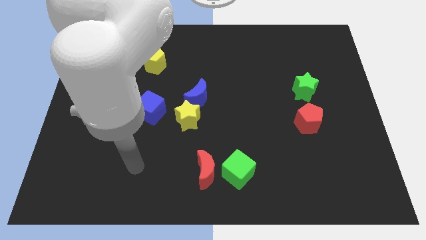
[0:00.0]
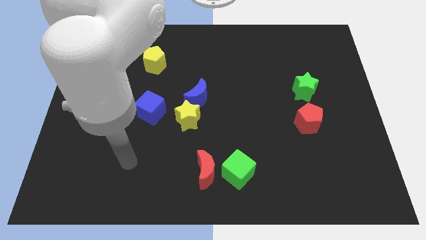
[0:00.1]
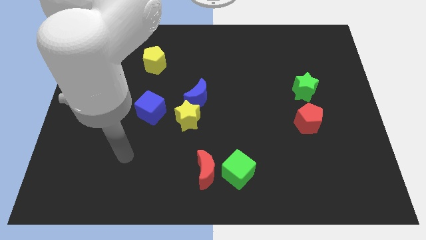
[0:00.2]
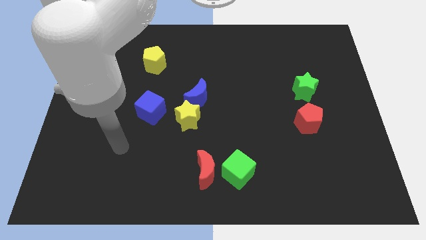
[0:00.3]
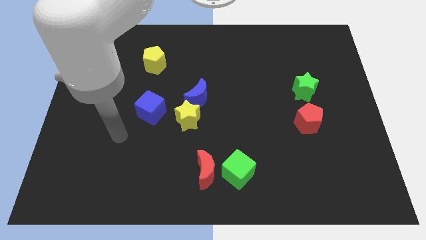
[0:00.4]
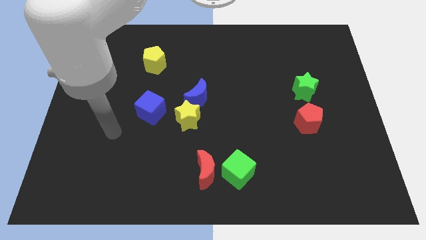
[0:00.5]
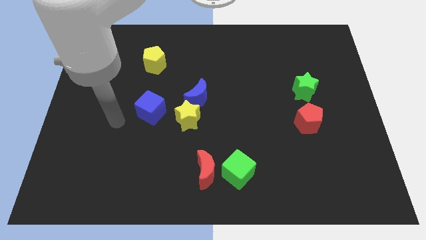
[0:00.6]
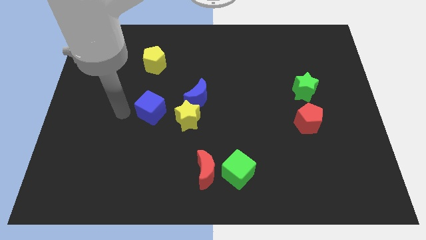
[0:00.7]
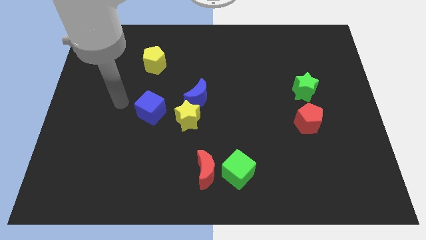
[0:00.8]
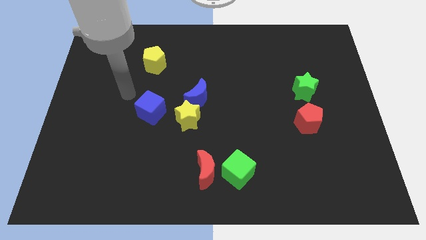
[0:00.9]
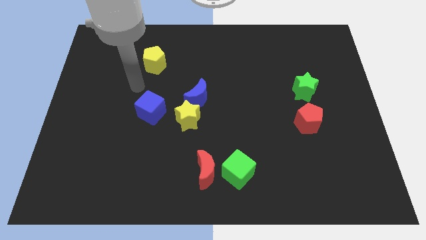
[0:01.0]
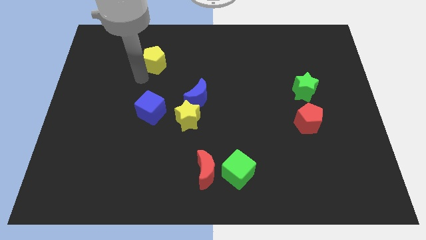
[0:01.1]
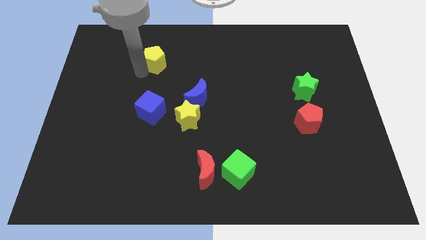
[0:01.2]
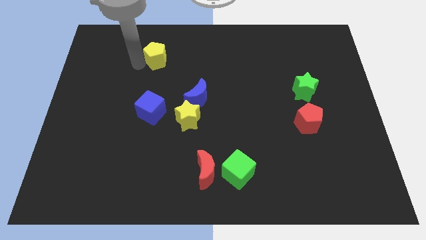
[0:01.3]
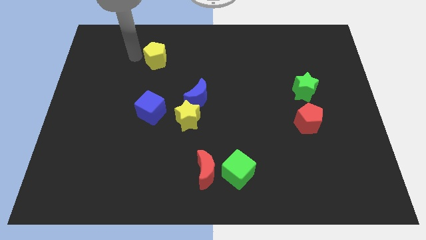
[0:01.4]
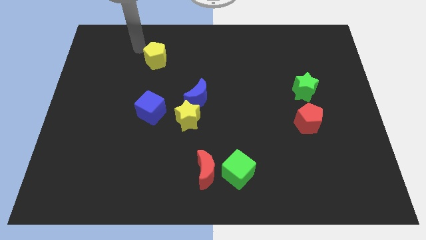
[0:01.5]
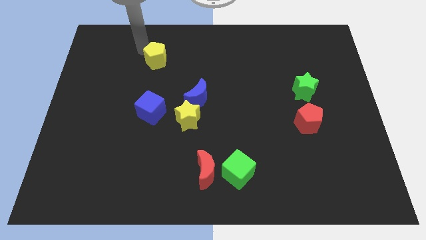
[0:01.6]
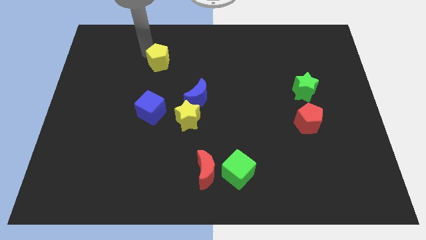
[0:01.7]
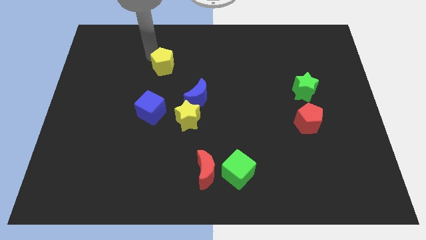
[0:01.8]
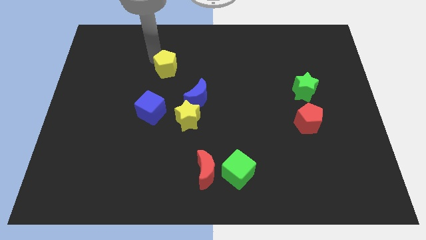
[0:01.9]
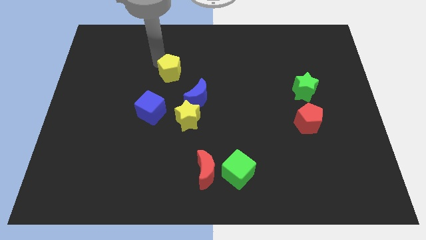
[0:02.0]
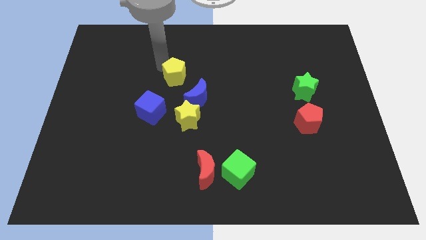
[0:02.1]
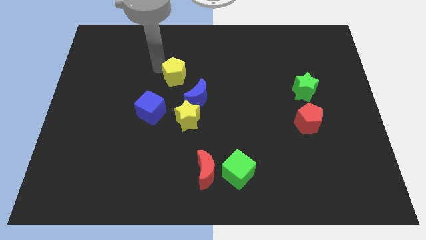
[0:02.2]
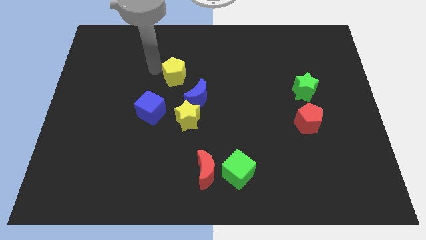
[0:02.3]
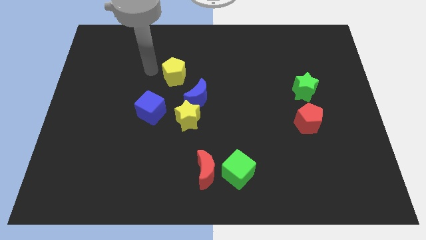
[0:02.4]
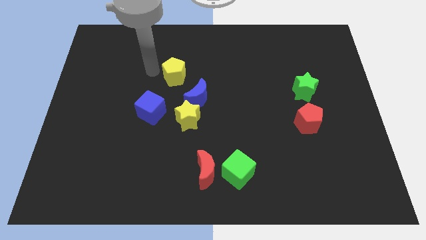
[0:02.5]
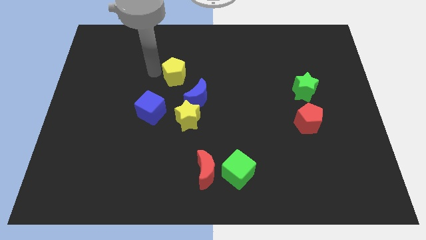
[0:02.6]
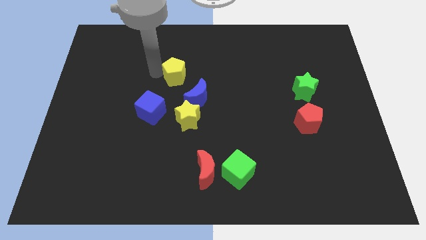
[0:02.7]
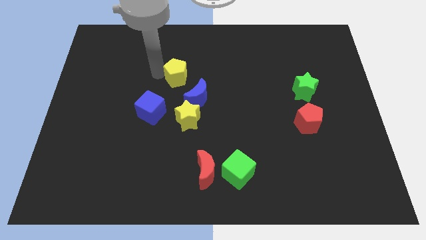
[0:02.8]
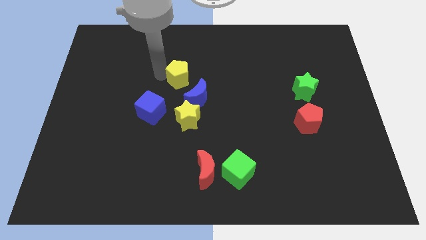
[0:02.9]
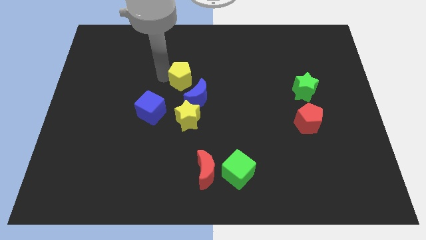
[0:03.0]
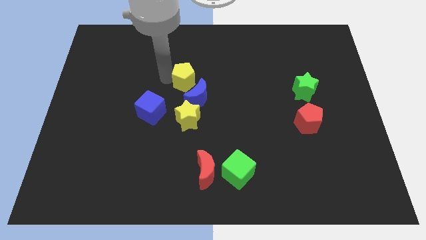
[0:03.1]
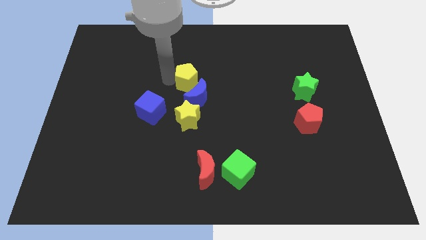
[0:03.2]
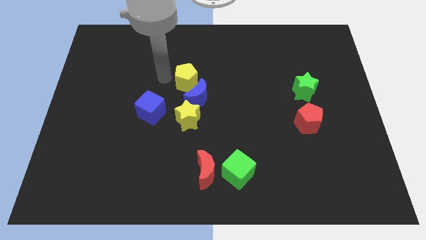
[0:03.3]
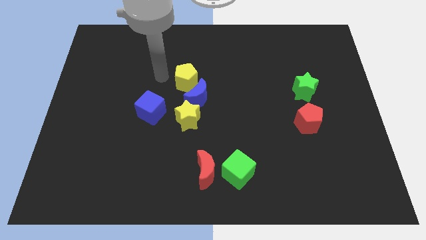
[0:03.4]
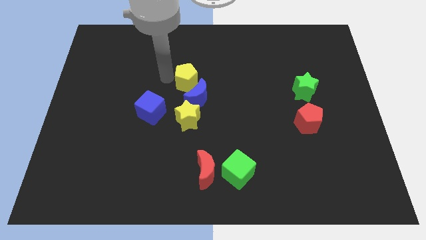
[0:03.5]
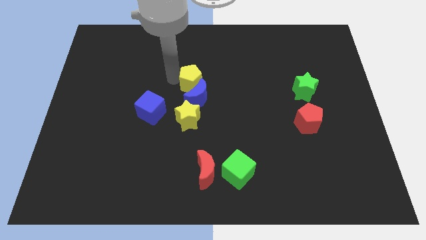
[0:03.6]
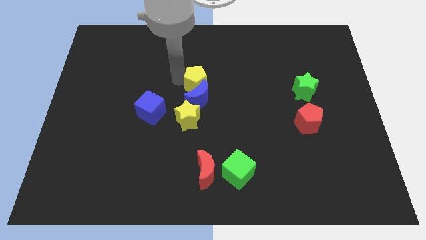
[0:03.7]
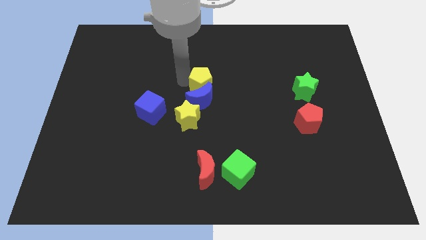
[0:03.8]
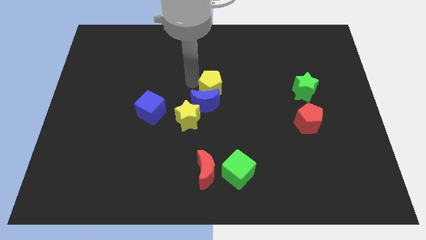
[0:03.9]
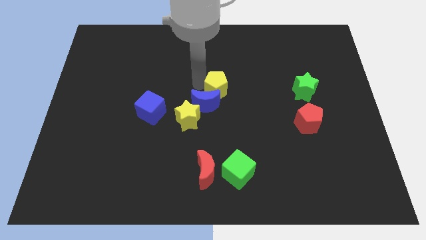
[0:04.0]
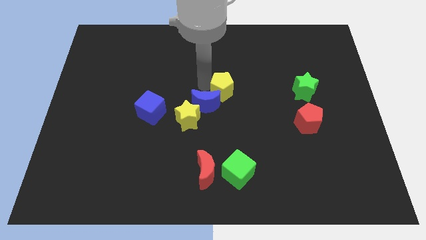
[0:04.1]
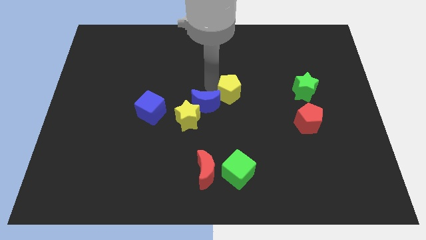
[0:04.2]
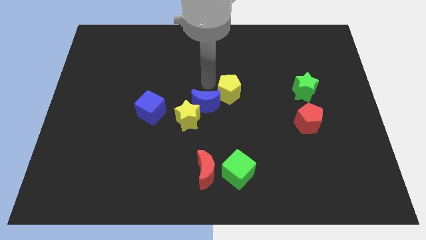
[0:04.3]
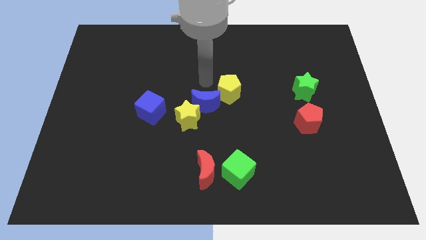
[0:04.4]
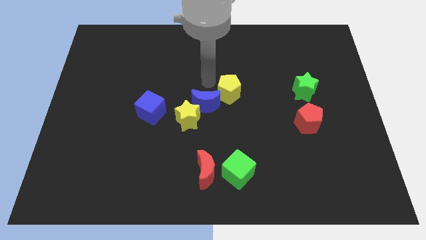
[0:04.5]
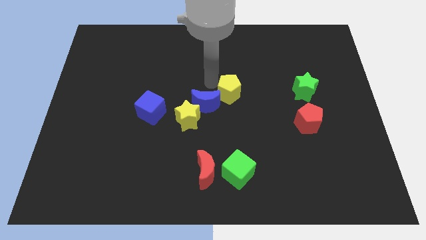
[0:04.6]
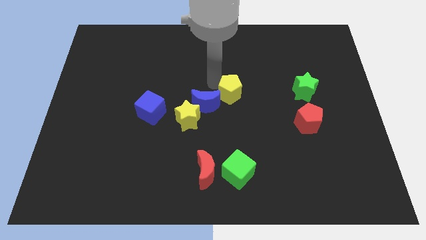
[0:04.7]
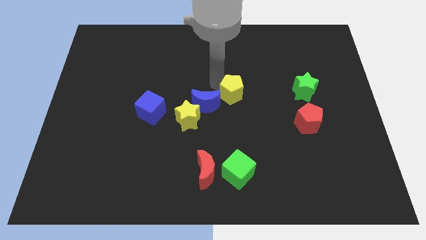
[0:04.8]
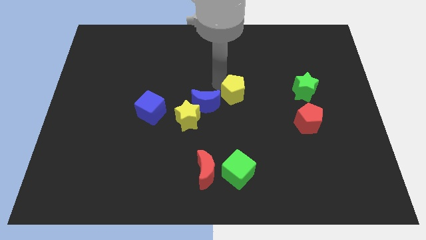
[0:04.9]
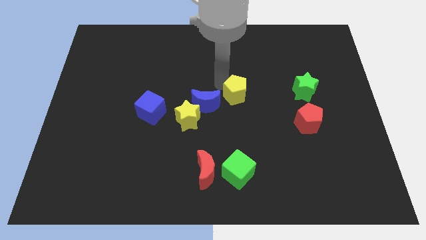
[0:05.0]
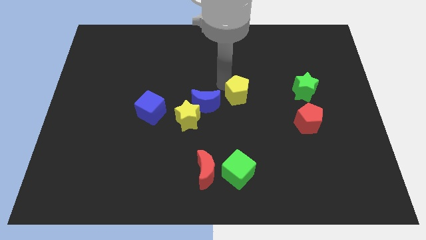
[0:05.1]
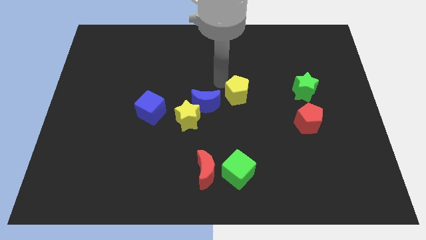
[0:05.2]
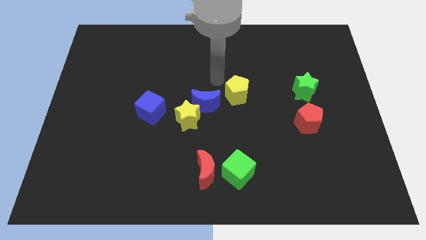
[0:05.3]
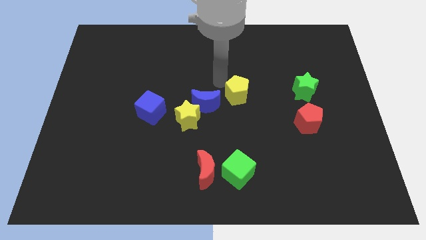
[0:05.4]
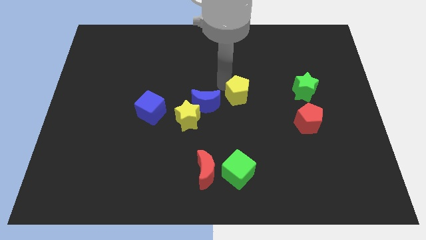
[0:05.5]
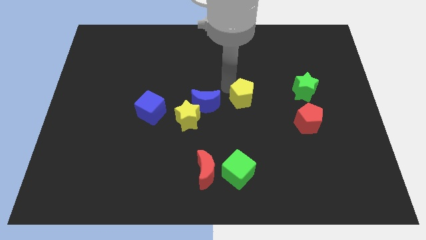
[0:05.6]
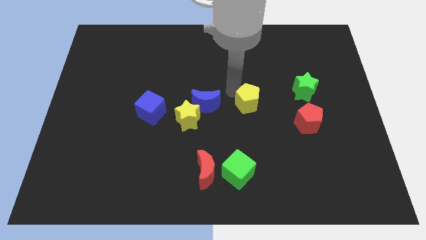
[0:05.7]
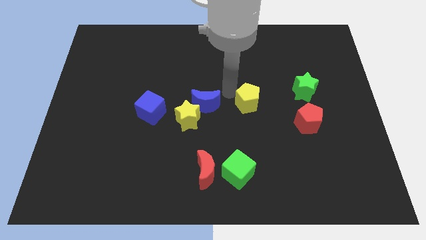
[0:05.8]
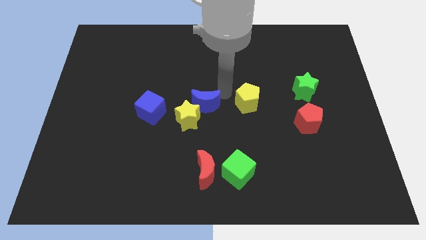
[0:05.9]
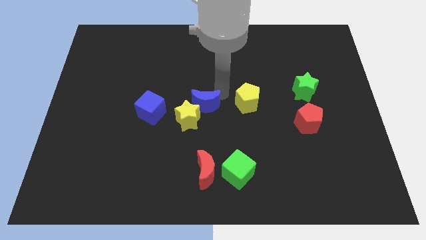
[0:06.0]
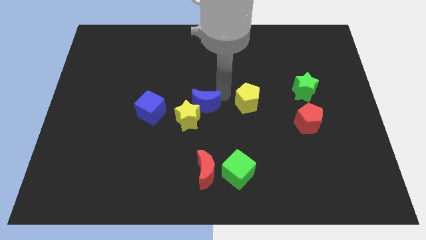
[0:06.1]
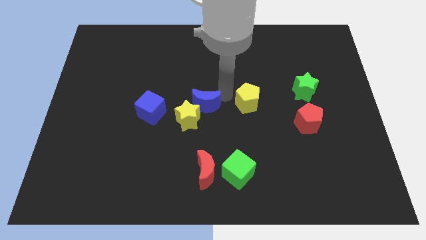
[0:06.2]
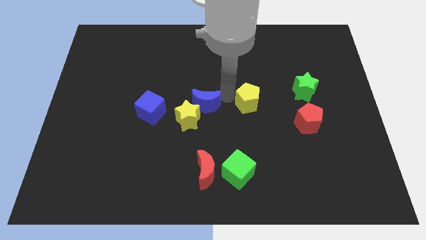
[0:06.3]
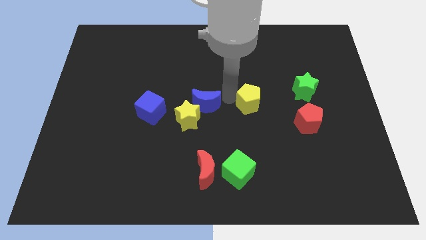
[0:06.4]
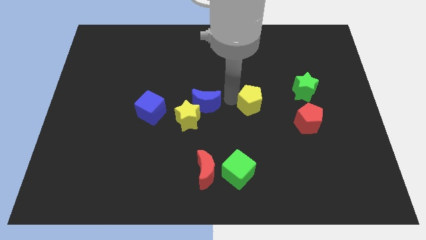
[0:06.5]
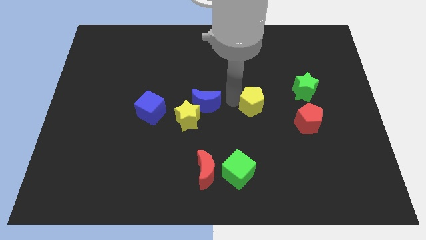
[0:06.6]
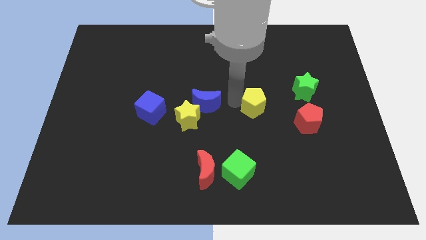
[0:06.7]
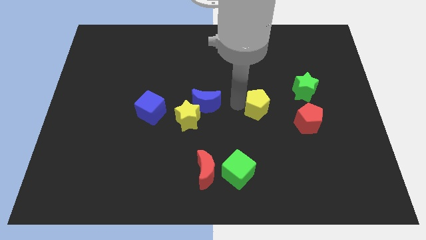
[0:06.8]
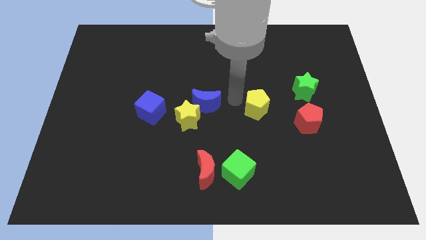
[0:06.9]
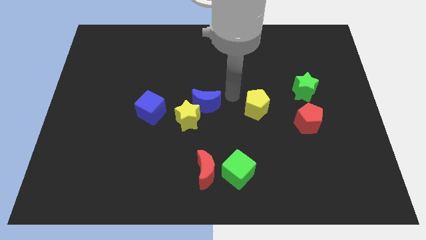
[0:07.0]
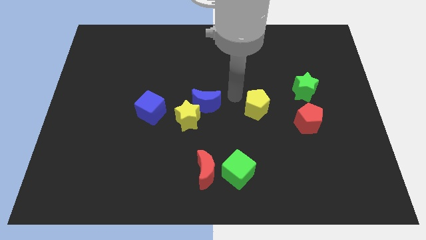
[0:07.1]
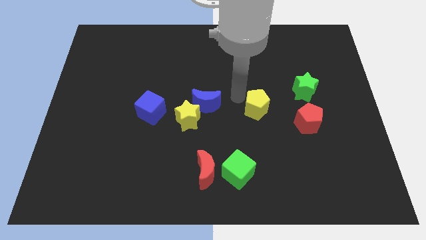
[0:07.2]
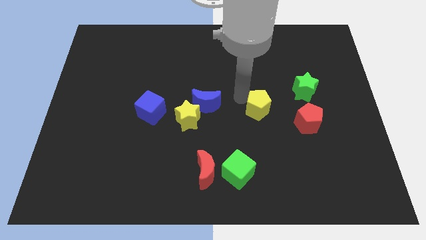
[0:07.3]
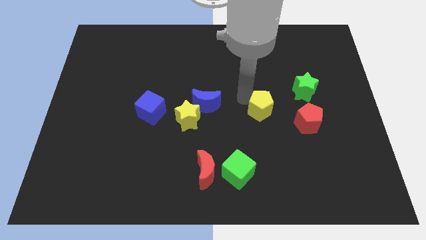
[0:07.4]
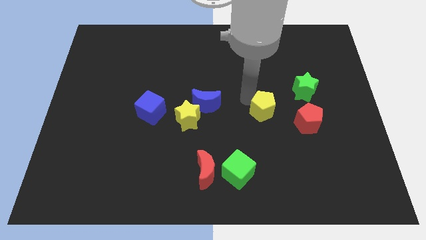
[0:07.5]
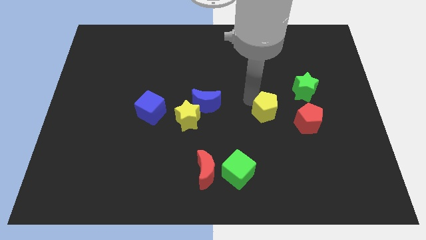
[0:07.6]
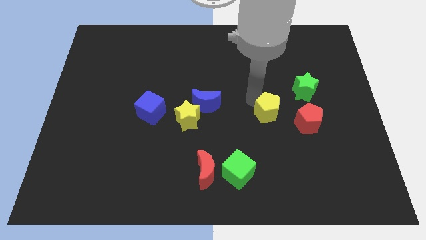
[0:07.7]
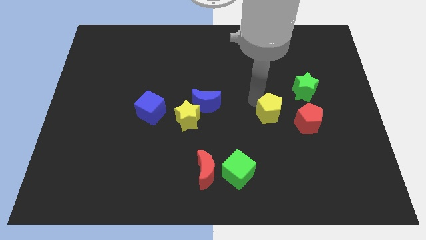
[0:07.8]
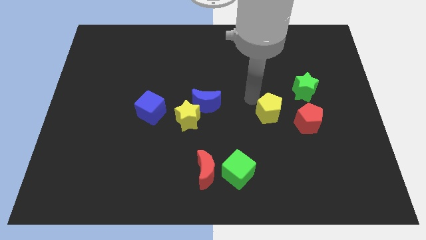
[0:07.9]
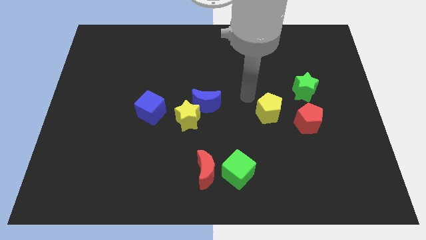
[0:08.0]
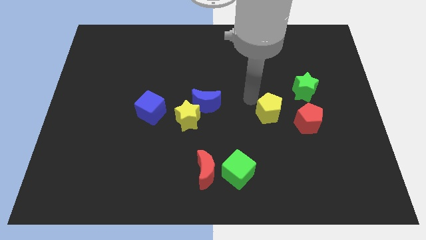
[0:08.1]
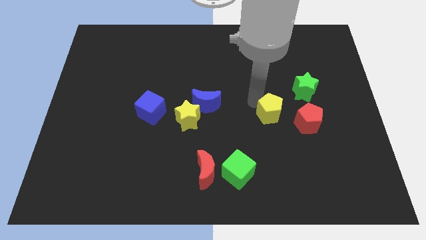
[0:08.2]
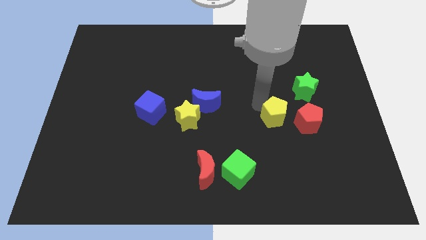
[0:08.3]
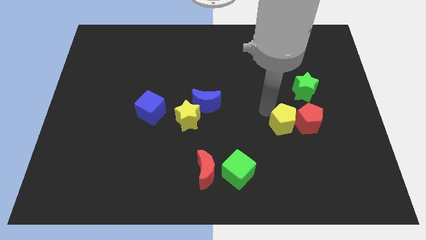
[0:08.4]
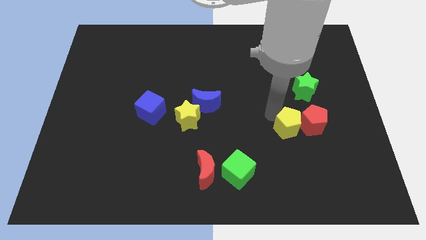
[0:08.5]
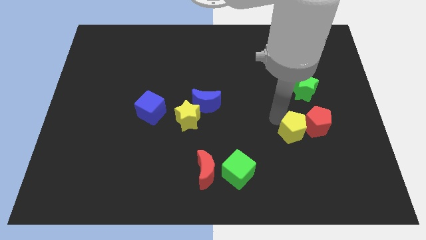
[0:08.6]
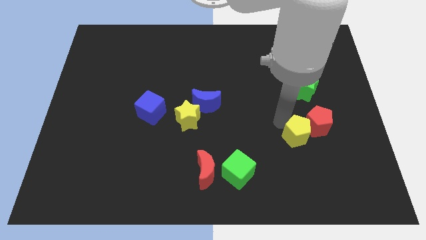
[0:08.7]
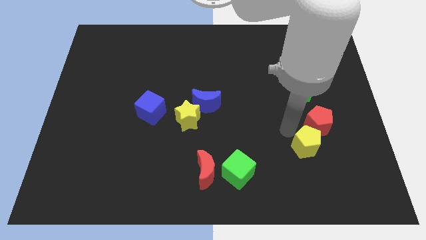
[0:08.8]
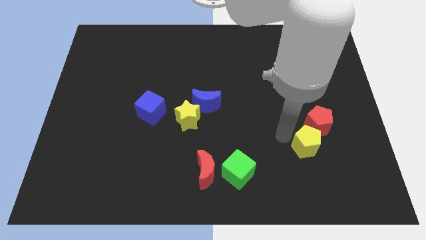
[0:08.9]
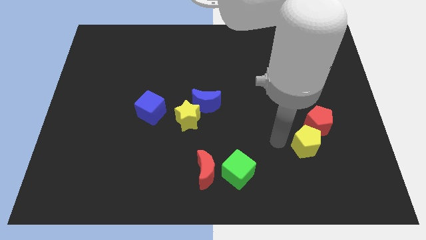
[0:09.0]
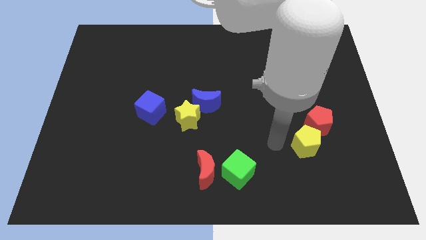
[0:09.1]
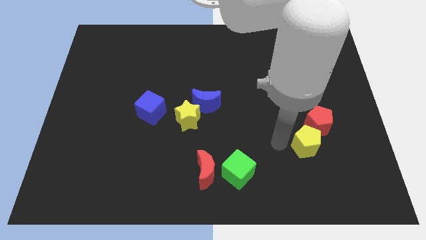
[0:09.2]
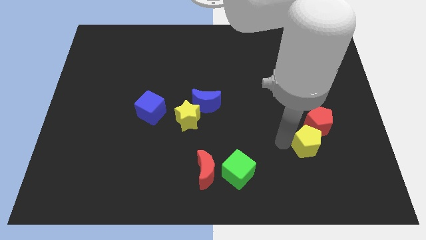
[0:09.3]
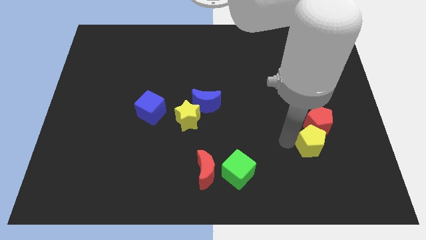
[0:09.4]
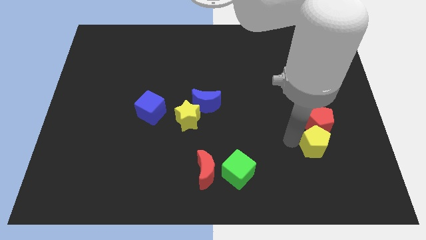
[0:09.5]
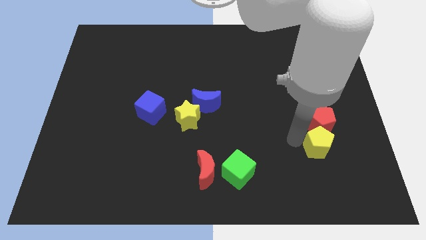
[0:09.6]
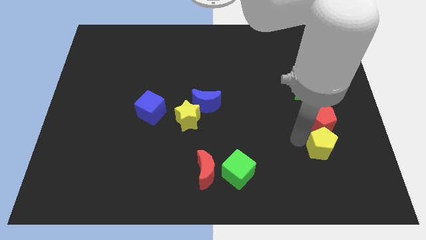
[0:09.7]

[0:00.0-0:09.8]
move the yellow pentagon diagonally down and to the right of the red pentagon
